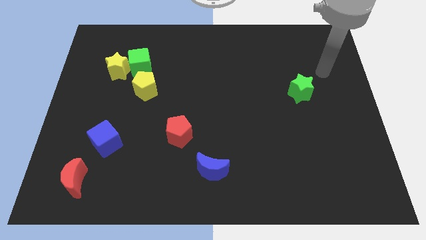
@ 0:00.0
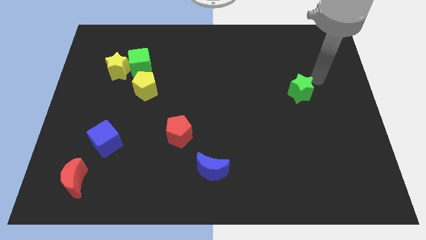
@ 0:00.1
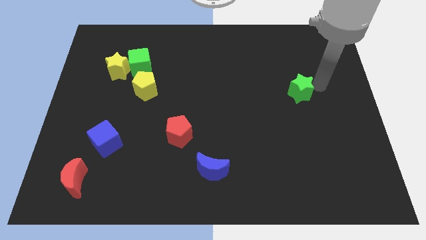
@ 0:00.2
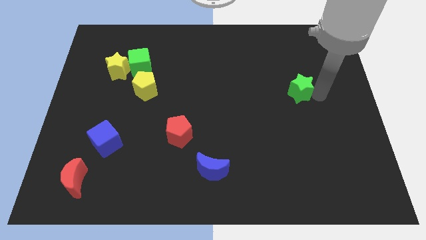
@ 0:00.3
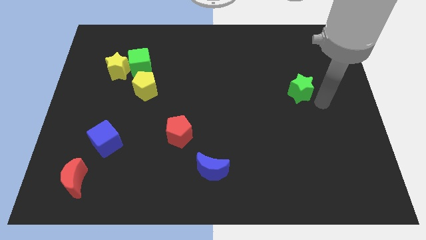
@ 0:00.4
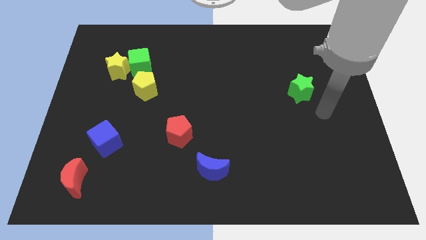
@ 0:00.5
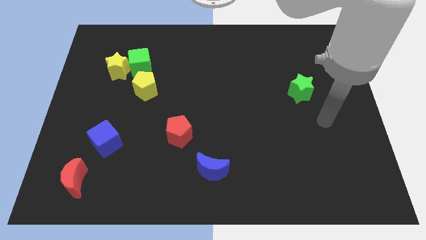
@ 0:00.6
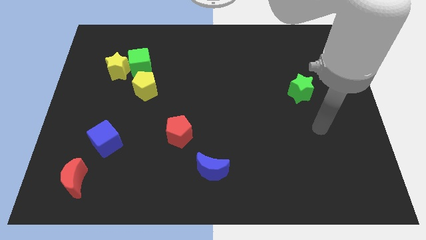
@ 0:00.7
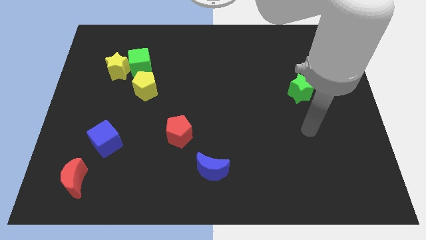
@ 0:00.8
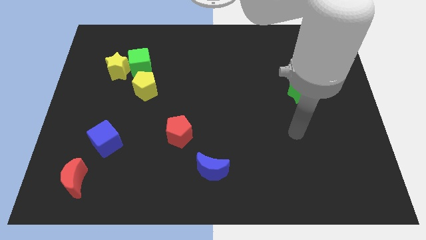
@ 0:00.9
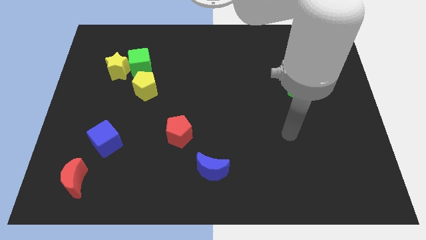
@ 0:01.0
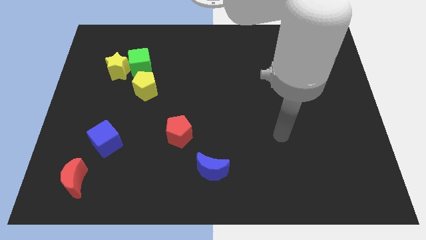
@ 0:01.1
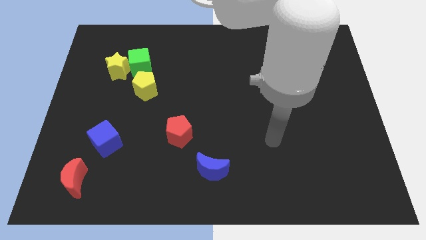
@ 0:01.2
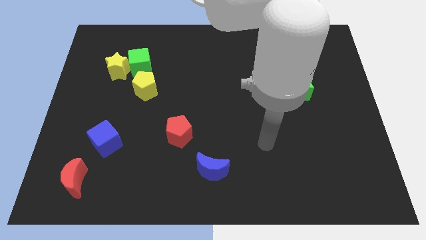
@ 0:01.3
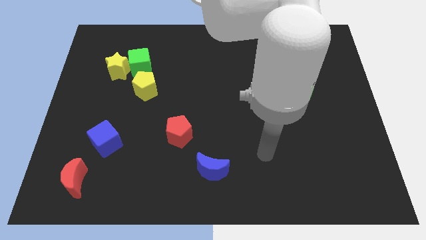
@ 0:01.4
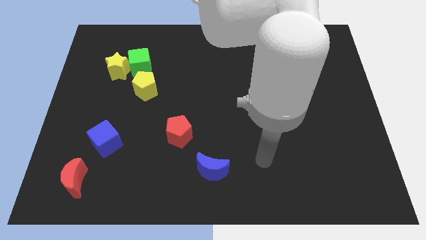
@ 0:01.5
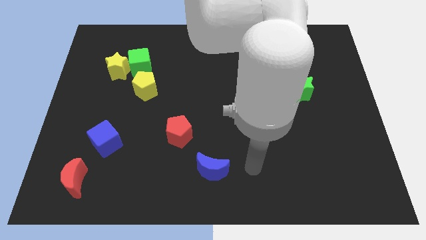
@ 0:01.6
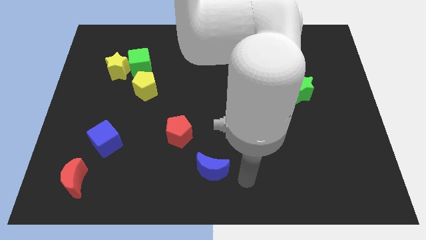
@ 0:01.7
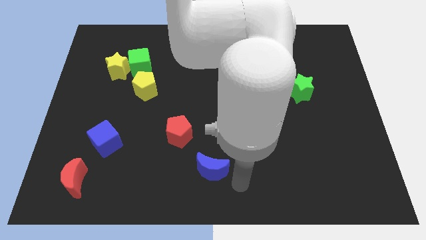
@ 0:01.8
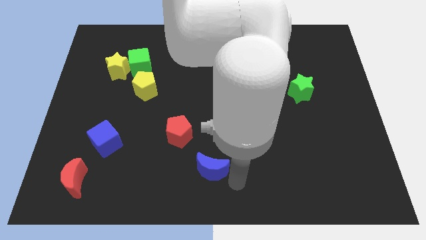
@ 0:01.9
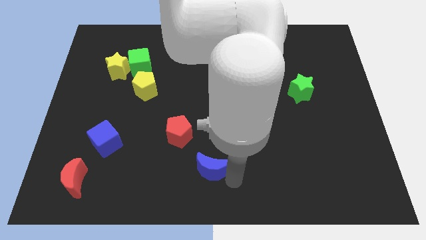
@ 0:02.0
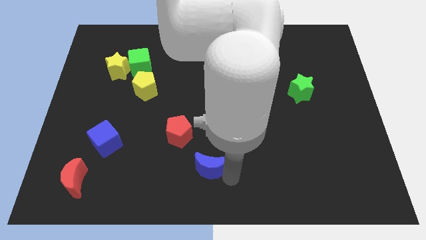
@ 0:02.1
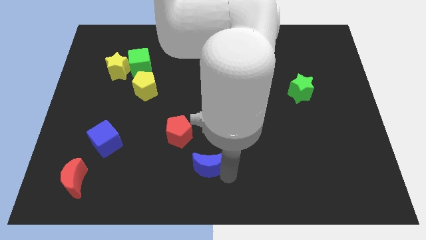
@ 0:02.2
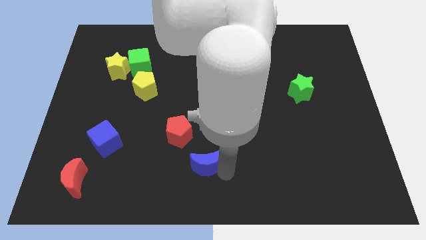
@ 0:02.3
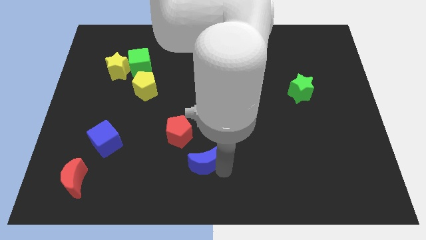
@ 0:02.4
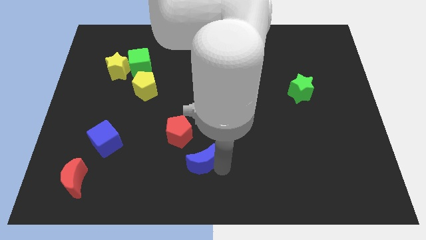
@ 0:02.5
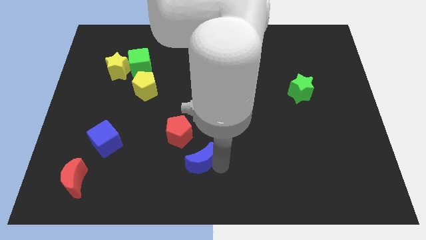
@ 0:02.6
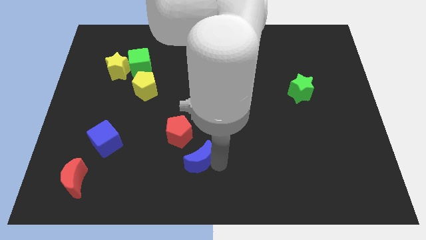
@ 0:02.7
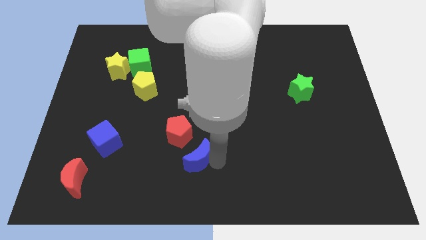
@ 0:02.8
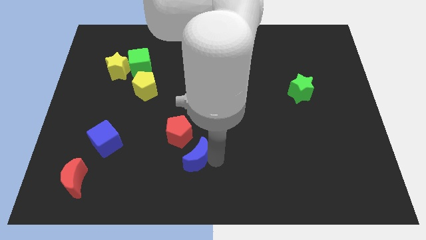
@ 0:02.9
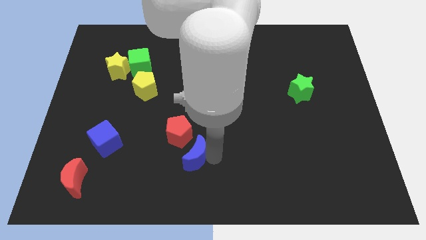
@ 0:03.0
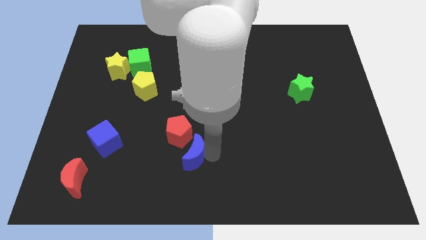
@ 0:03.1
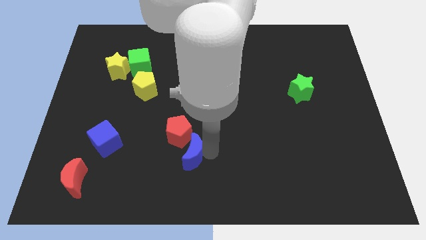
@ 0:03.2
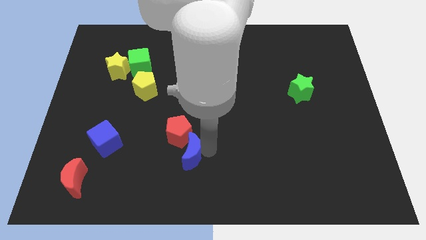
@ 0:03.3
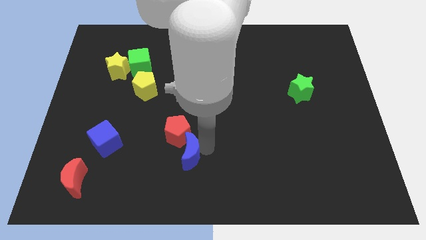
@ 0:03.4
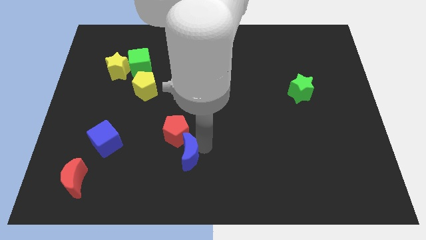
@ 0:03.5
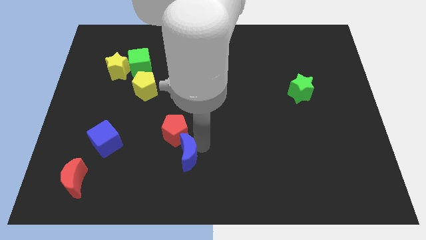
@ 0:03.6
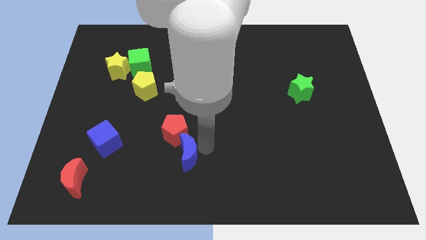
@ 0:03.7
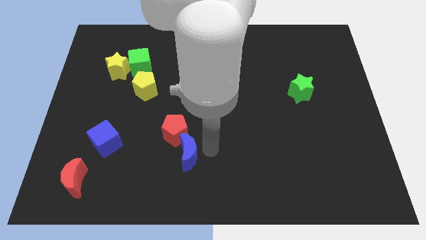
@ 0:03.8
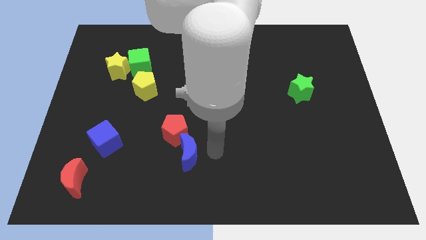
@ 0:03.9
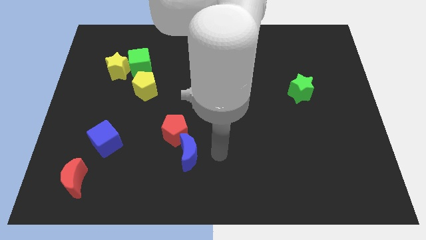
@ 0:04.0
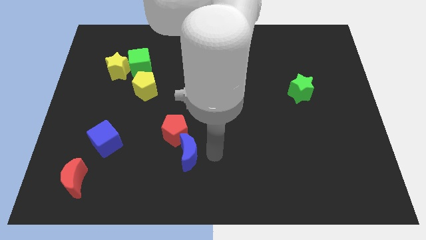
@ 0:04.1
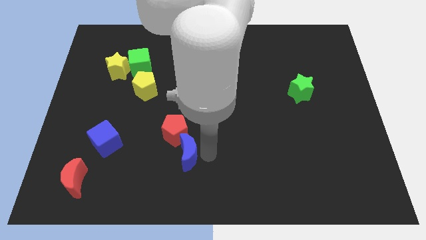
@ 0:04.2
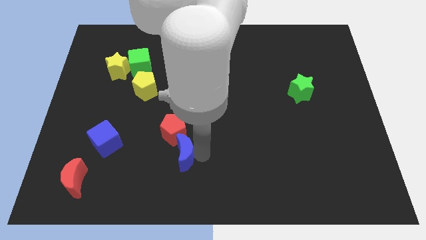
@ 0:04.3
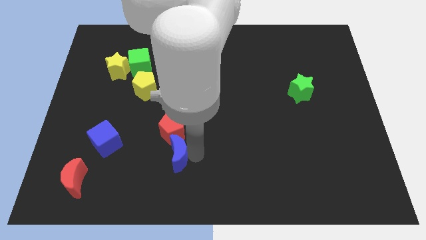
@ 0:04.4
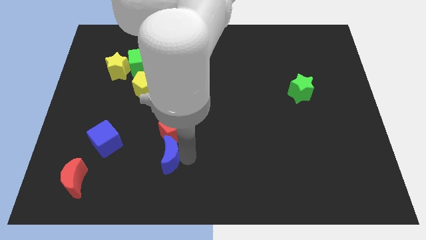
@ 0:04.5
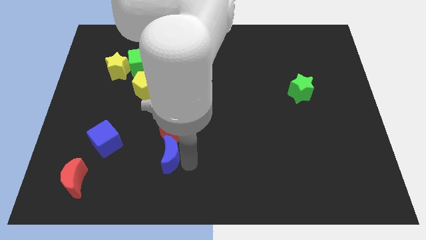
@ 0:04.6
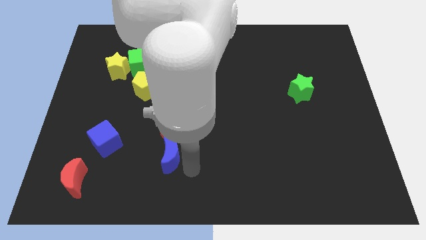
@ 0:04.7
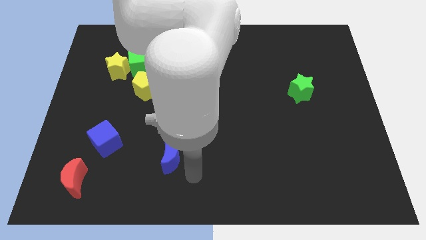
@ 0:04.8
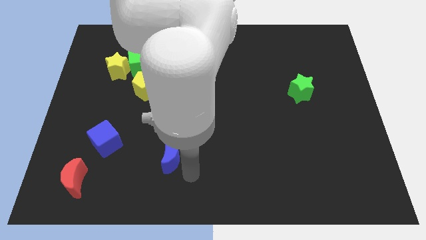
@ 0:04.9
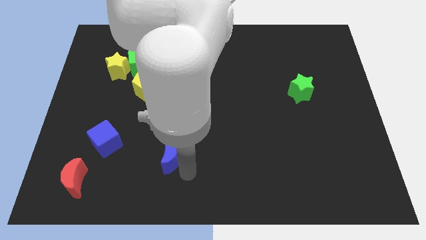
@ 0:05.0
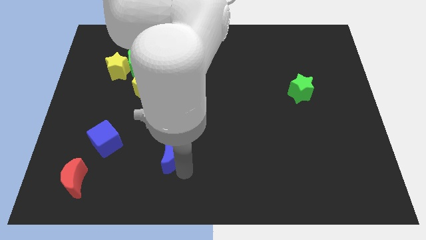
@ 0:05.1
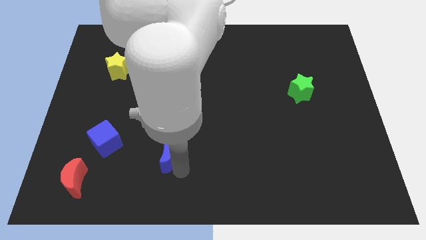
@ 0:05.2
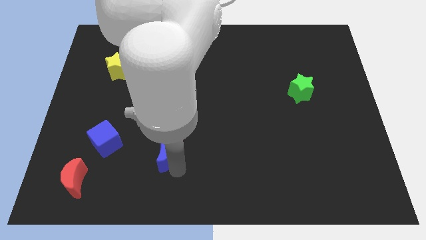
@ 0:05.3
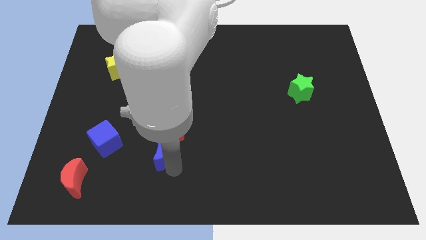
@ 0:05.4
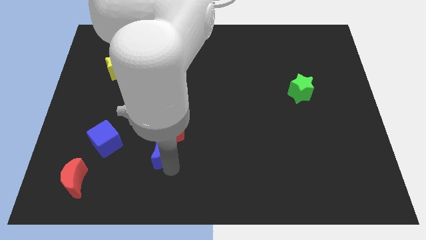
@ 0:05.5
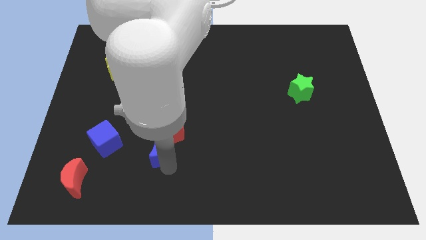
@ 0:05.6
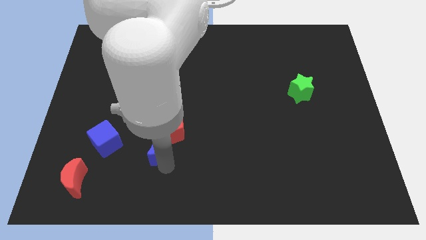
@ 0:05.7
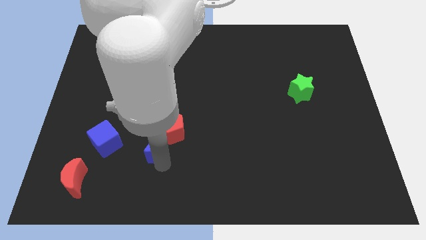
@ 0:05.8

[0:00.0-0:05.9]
put the blue moon just left of the red pentagon

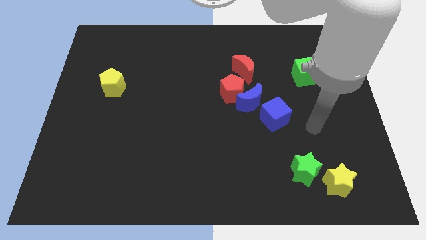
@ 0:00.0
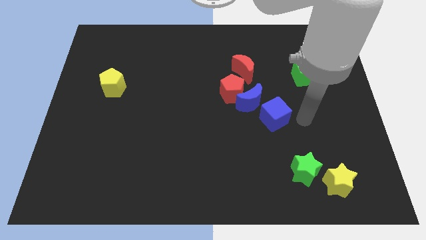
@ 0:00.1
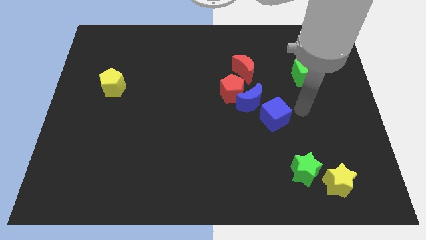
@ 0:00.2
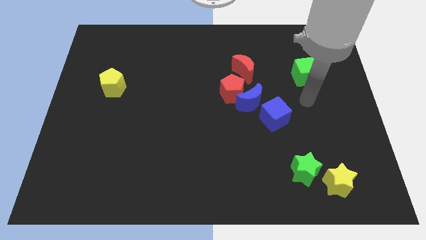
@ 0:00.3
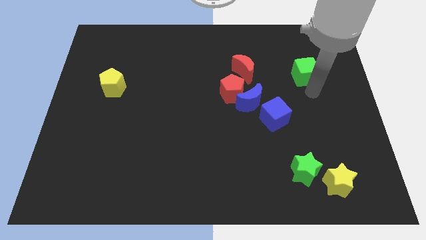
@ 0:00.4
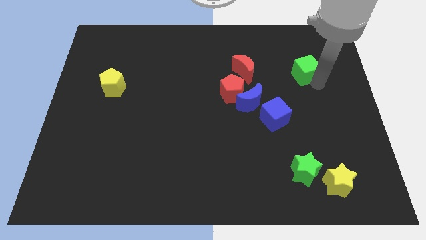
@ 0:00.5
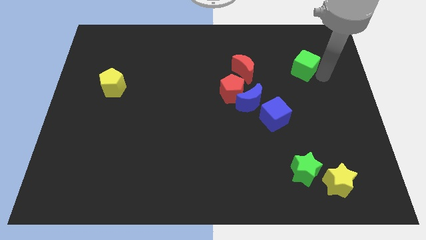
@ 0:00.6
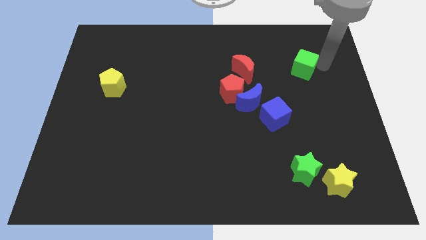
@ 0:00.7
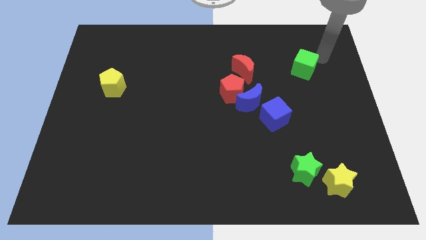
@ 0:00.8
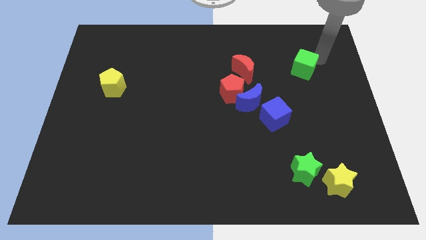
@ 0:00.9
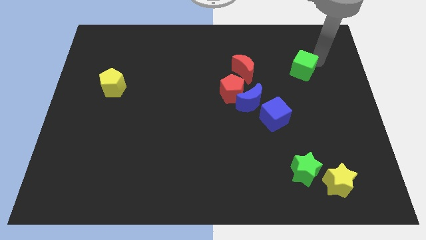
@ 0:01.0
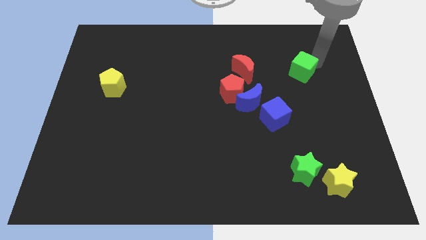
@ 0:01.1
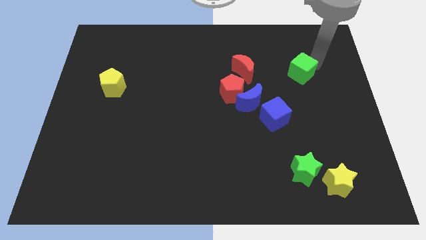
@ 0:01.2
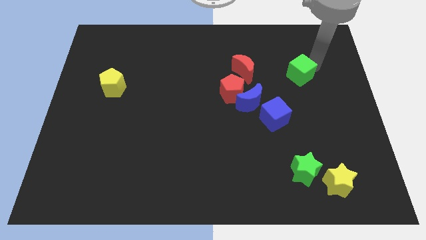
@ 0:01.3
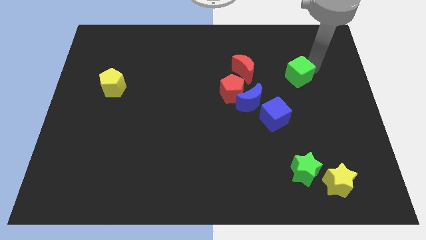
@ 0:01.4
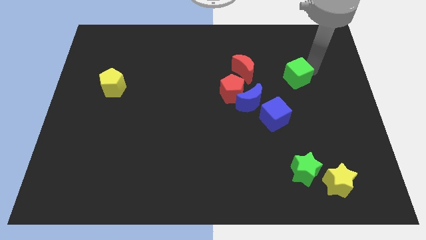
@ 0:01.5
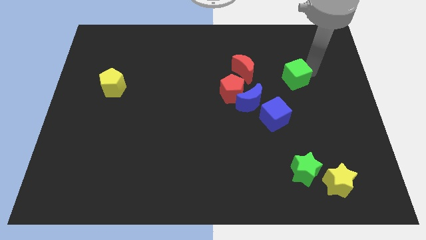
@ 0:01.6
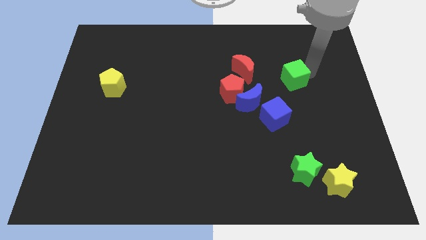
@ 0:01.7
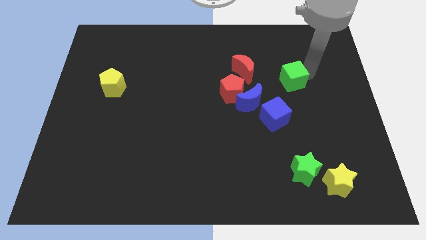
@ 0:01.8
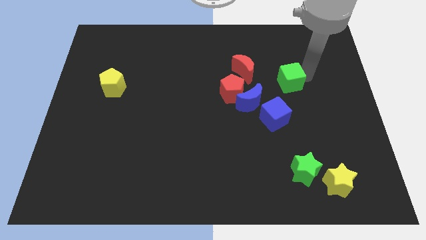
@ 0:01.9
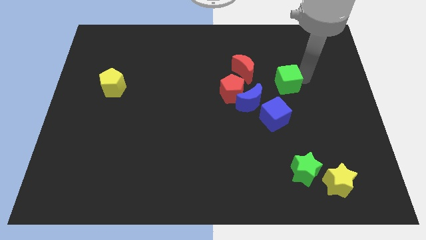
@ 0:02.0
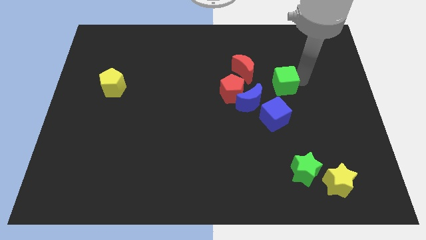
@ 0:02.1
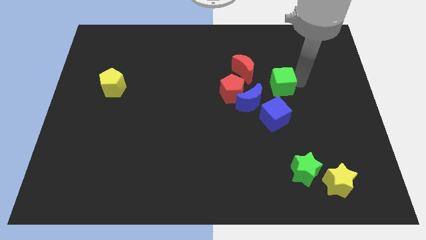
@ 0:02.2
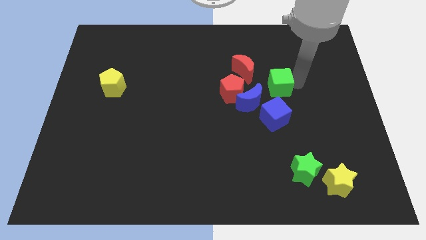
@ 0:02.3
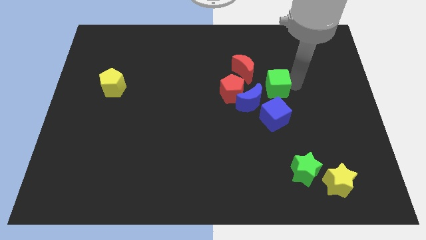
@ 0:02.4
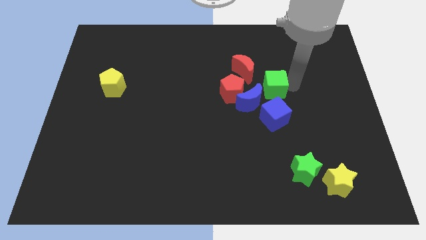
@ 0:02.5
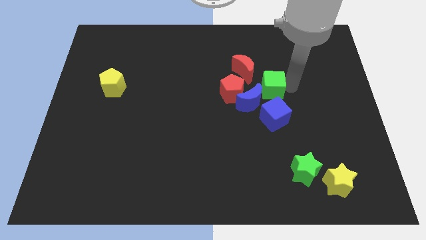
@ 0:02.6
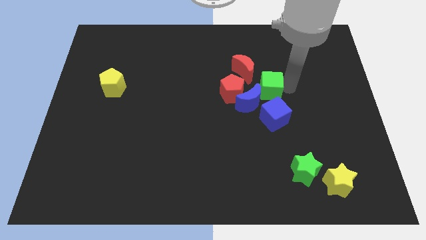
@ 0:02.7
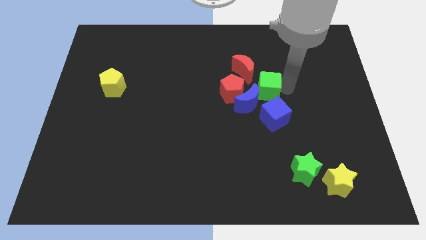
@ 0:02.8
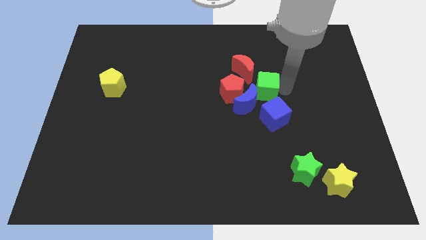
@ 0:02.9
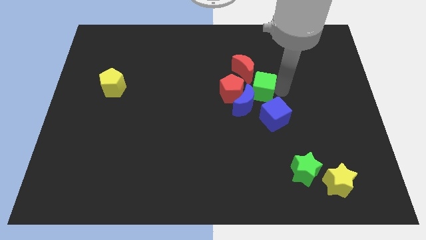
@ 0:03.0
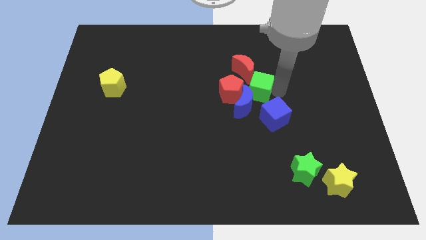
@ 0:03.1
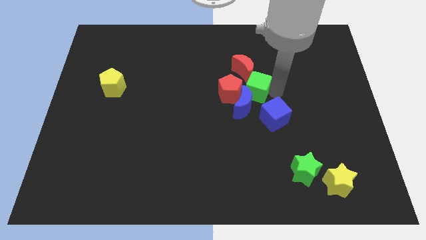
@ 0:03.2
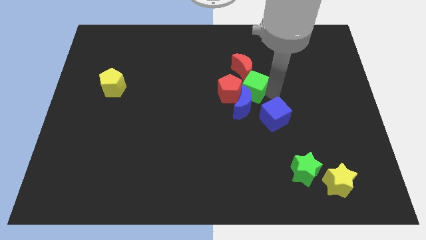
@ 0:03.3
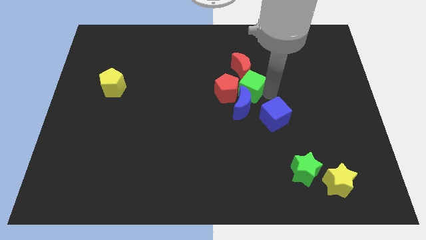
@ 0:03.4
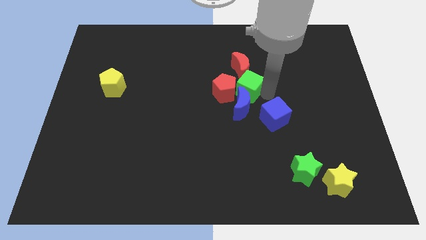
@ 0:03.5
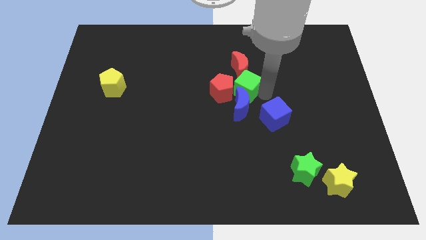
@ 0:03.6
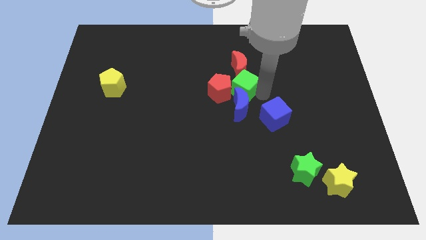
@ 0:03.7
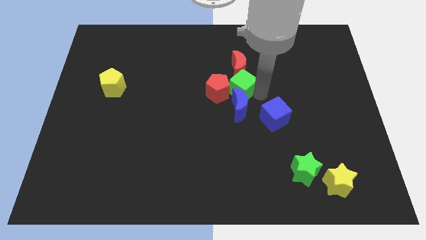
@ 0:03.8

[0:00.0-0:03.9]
move the green cube diagonally down and to the left of the red moon
